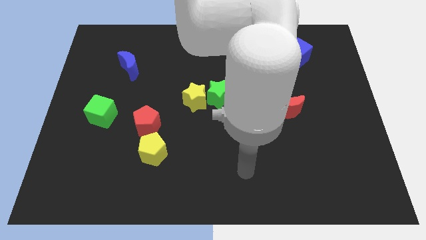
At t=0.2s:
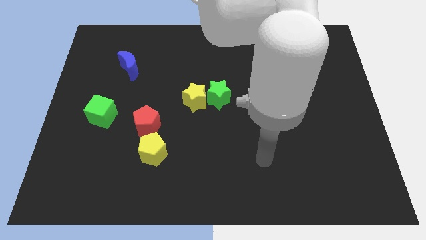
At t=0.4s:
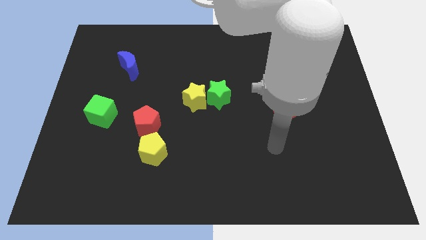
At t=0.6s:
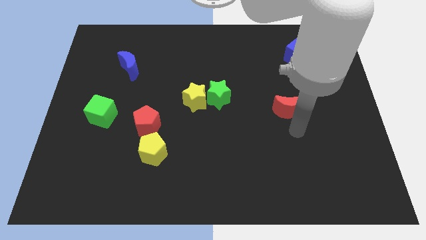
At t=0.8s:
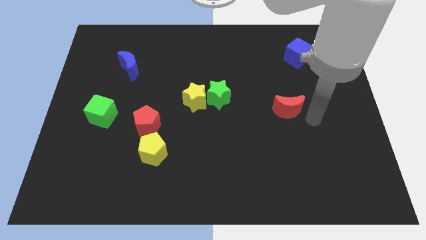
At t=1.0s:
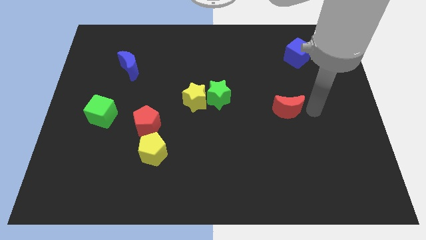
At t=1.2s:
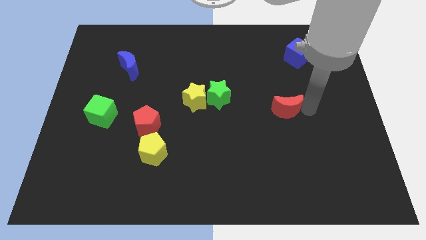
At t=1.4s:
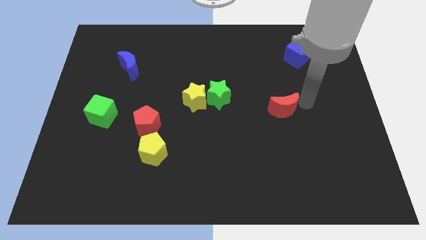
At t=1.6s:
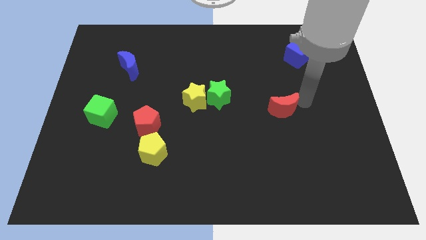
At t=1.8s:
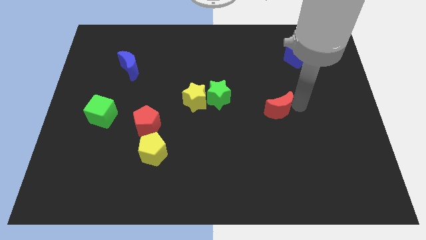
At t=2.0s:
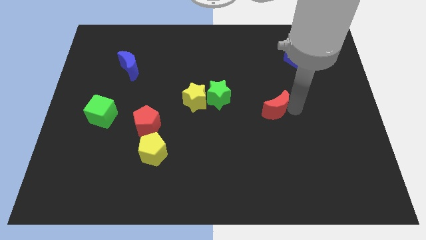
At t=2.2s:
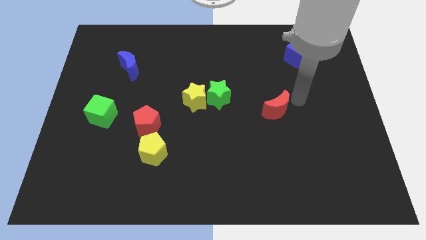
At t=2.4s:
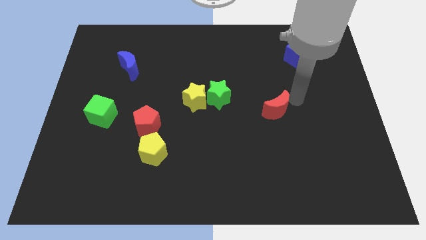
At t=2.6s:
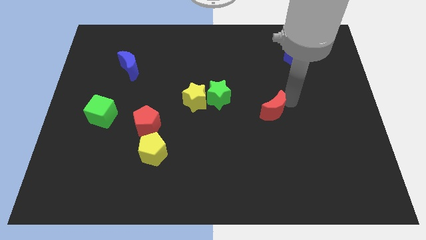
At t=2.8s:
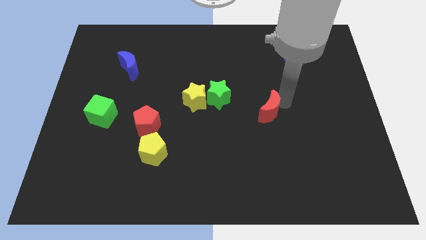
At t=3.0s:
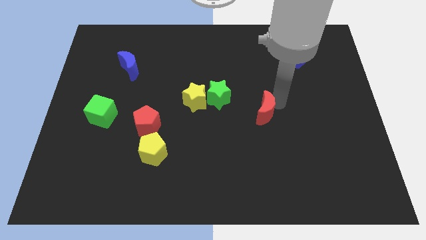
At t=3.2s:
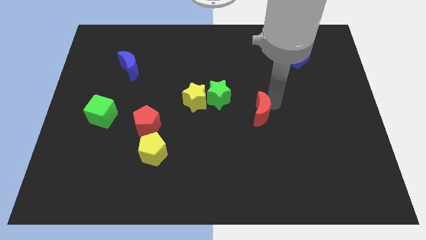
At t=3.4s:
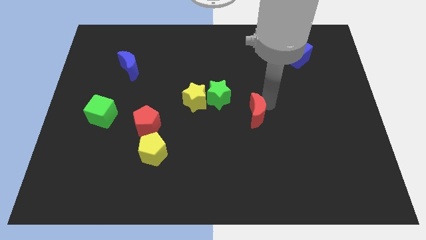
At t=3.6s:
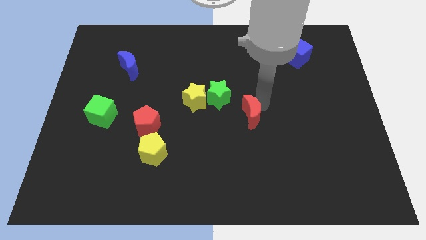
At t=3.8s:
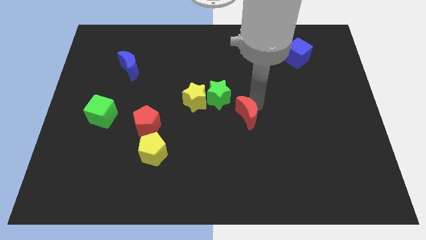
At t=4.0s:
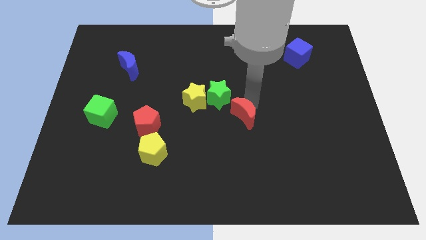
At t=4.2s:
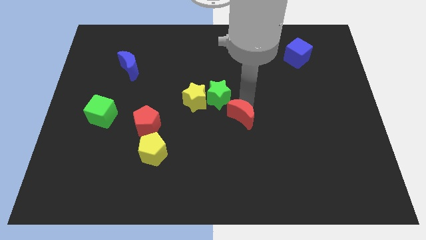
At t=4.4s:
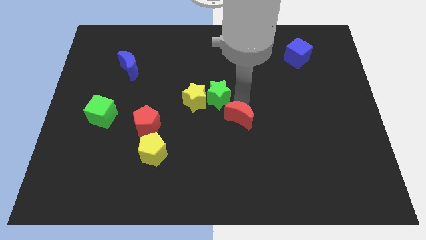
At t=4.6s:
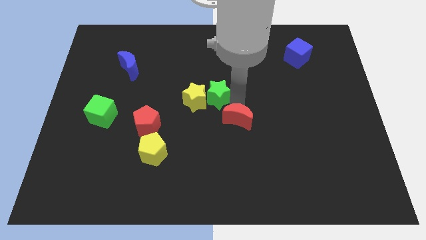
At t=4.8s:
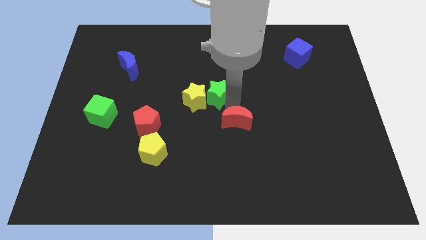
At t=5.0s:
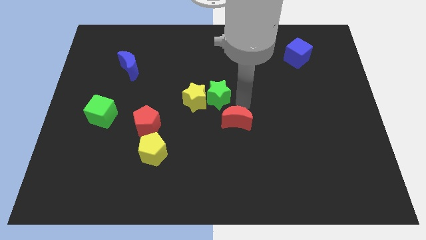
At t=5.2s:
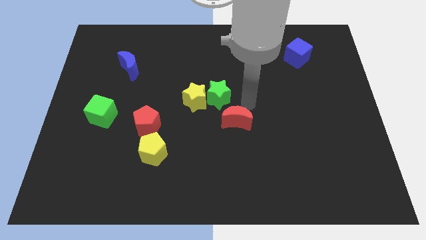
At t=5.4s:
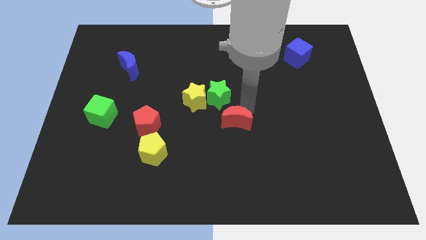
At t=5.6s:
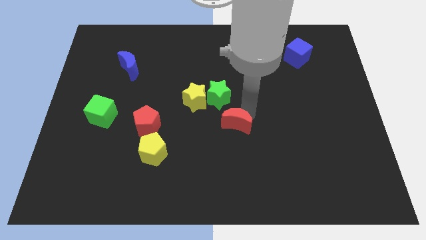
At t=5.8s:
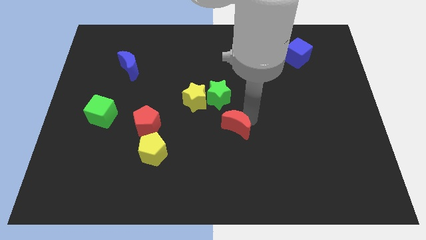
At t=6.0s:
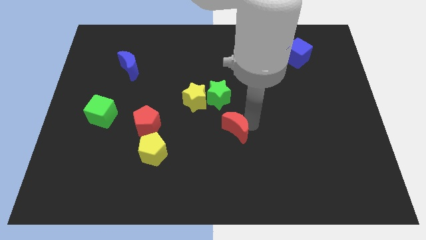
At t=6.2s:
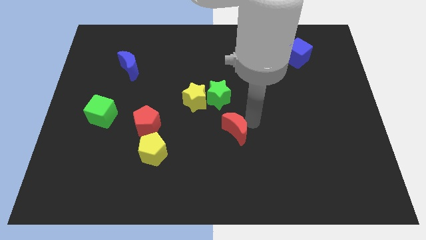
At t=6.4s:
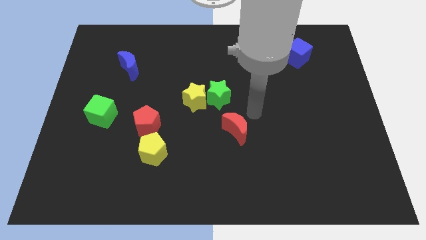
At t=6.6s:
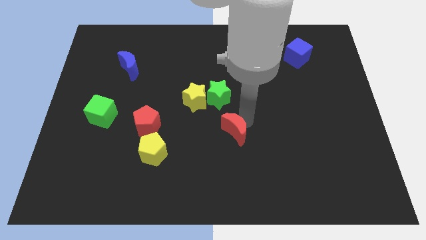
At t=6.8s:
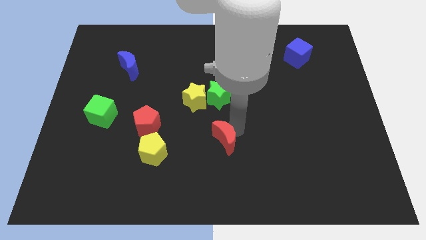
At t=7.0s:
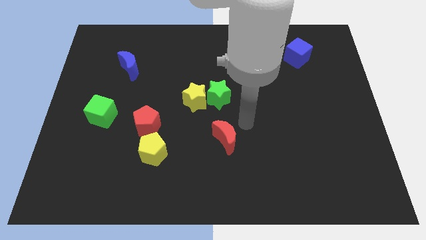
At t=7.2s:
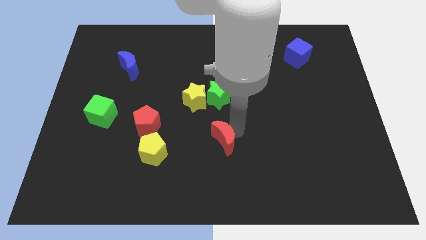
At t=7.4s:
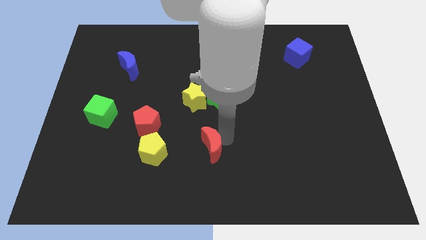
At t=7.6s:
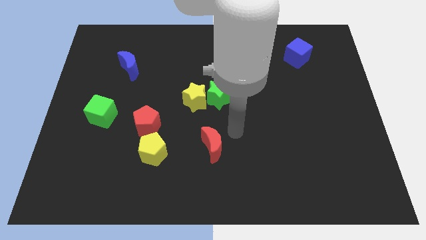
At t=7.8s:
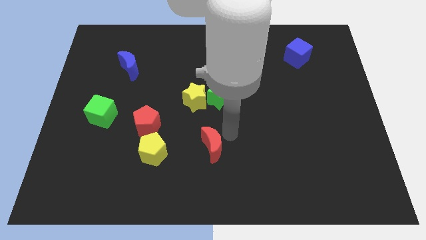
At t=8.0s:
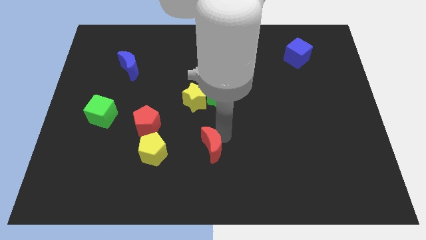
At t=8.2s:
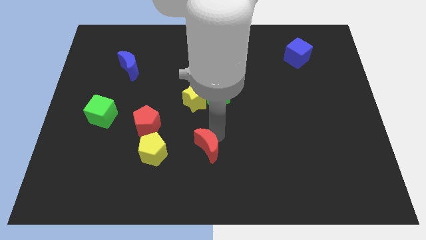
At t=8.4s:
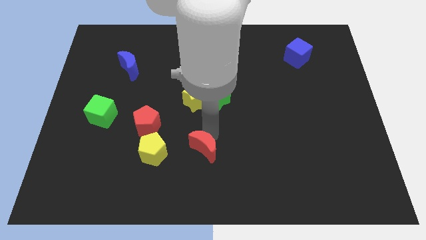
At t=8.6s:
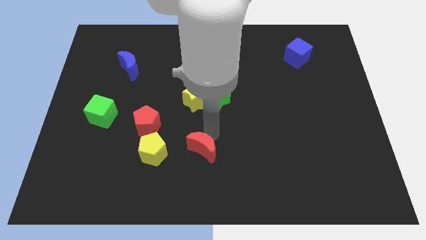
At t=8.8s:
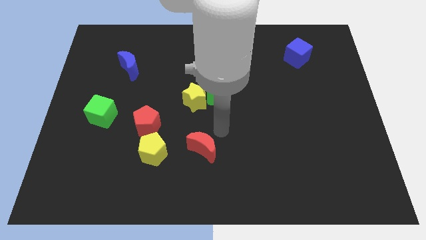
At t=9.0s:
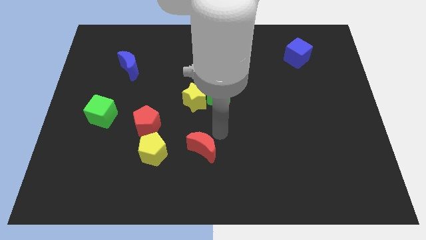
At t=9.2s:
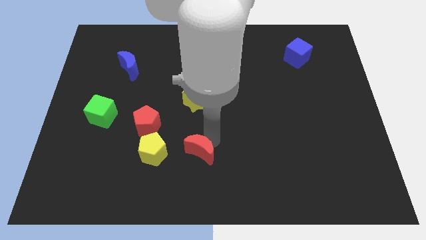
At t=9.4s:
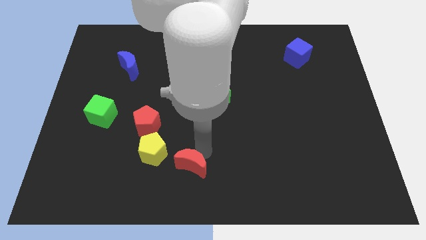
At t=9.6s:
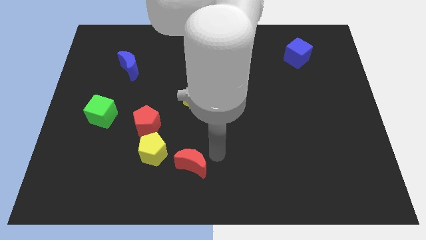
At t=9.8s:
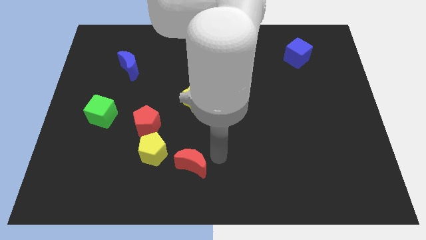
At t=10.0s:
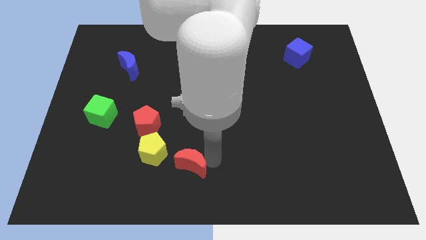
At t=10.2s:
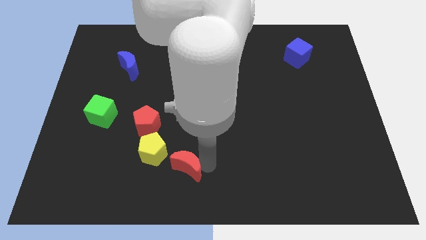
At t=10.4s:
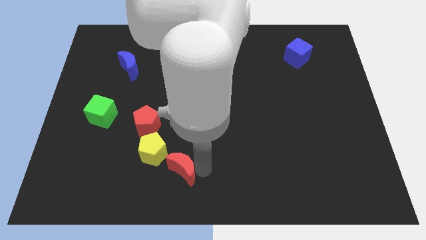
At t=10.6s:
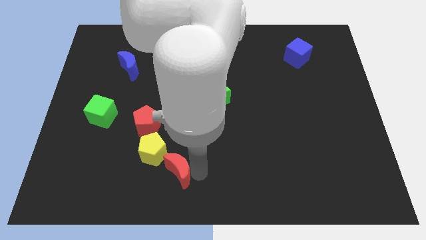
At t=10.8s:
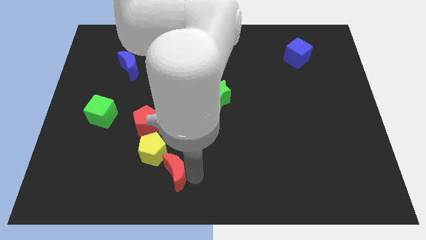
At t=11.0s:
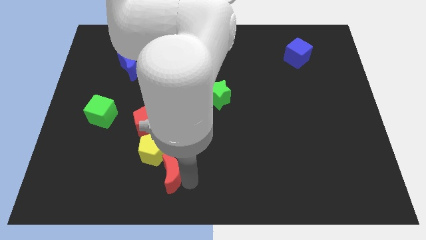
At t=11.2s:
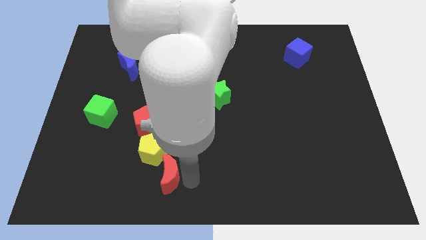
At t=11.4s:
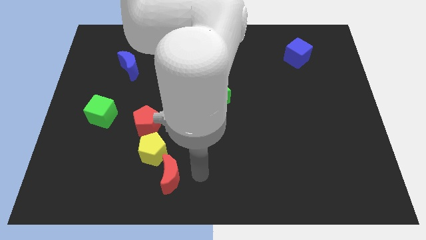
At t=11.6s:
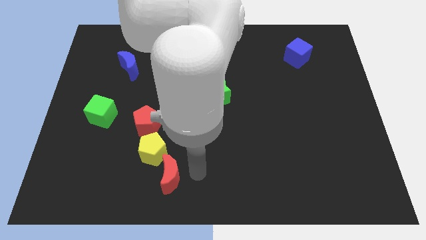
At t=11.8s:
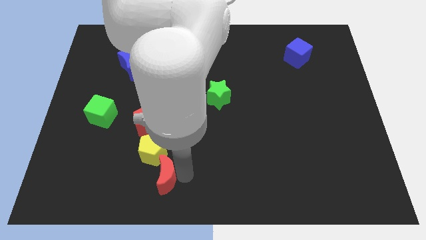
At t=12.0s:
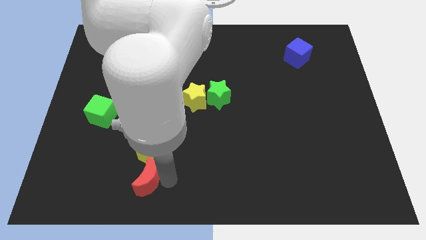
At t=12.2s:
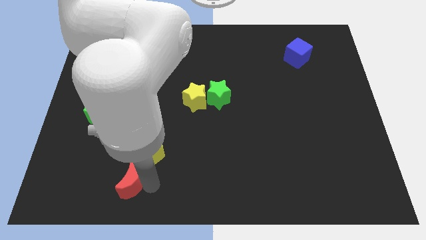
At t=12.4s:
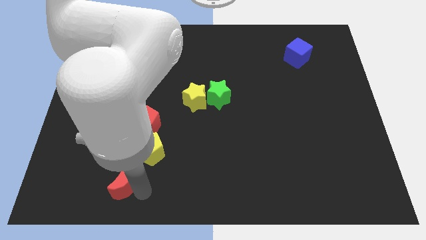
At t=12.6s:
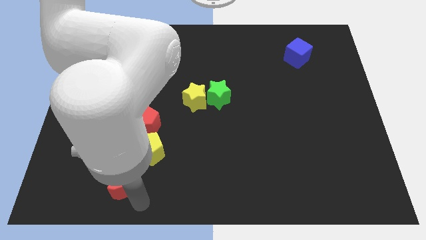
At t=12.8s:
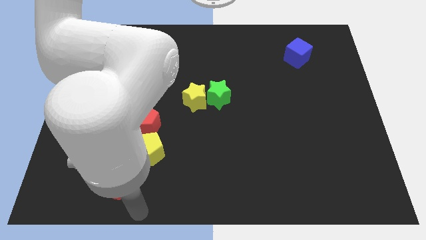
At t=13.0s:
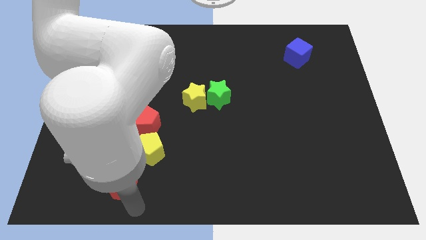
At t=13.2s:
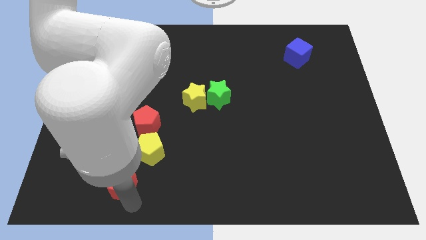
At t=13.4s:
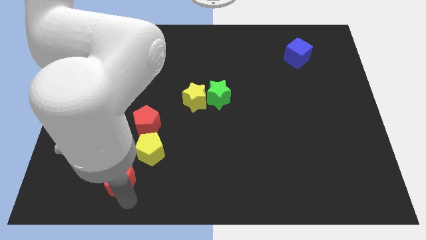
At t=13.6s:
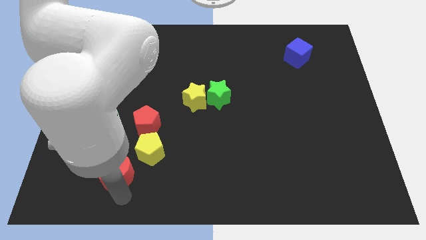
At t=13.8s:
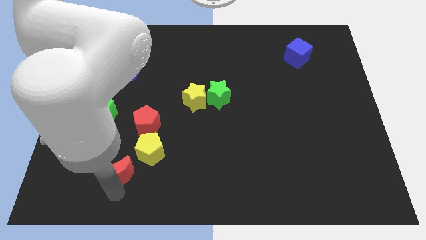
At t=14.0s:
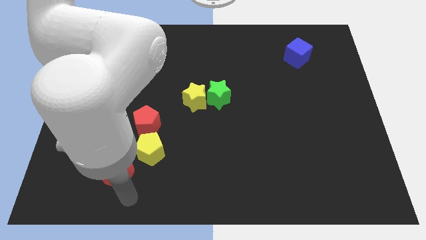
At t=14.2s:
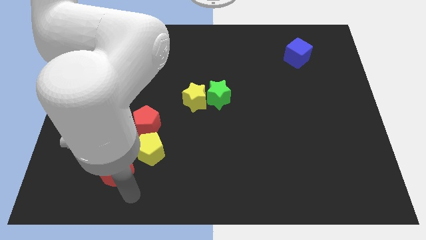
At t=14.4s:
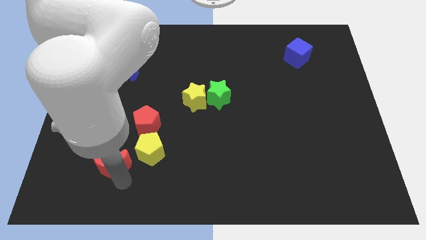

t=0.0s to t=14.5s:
put the red moon to the left side of the yellow pentagon

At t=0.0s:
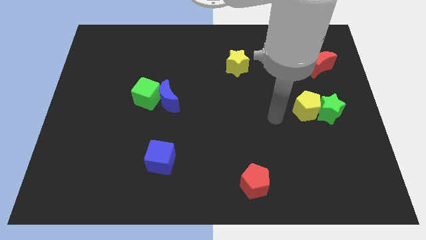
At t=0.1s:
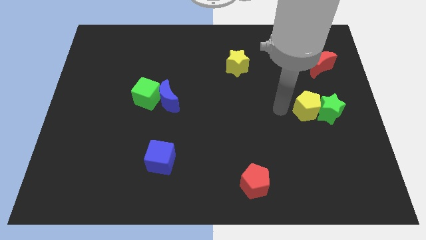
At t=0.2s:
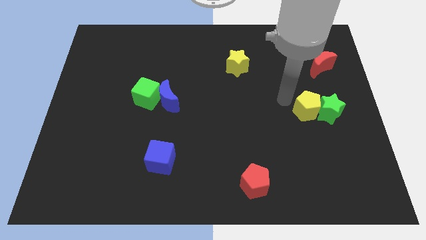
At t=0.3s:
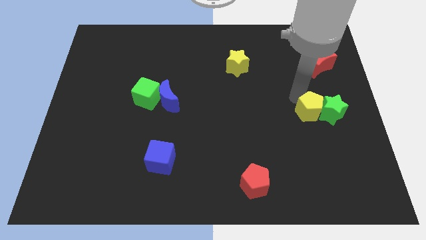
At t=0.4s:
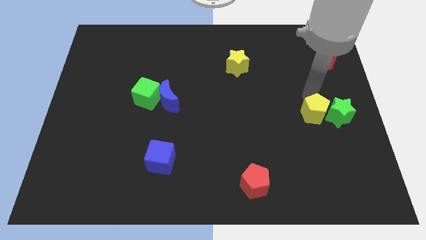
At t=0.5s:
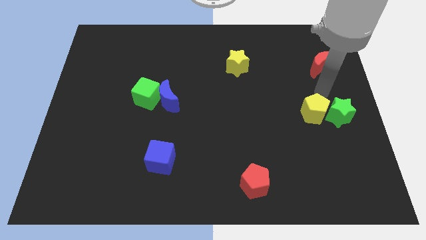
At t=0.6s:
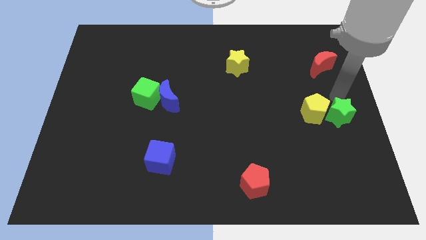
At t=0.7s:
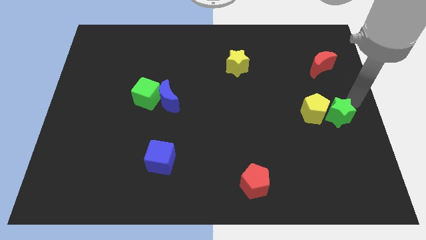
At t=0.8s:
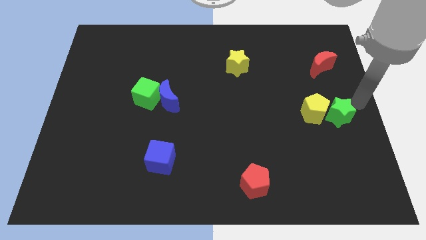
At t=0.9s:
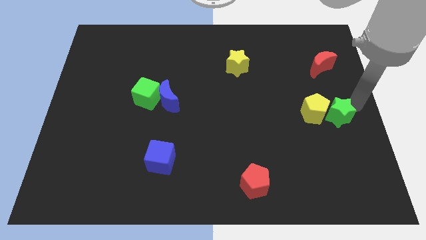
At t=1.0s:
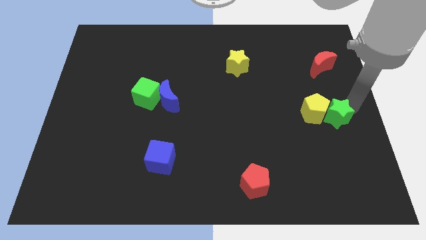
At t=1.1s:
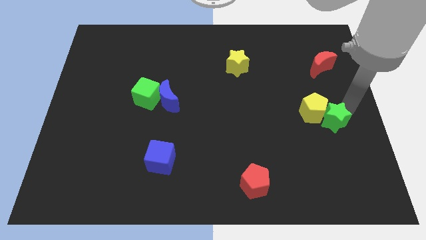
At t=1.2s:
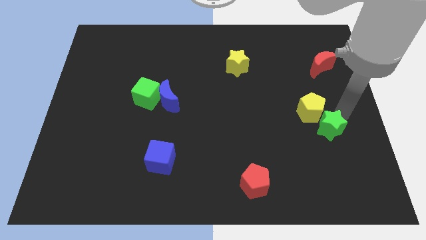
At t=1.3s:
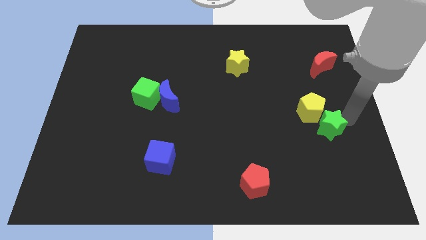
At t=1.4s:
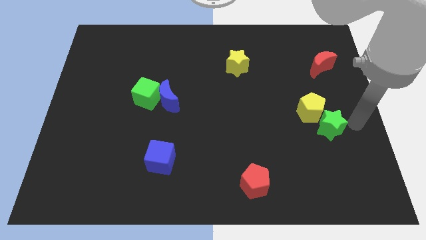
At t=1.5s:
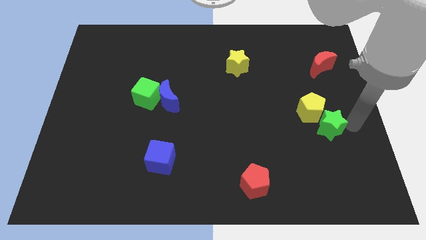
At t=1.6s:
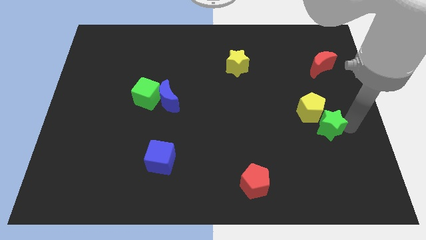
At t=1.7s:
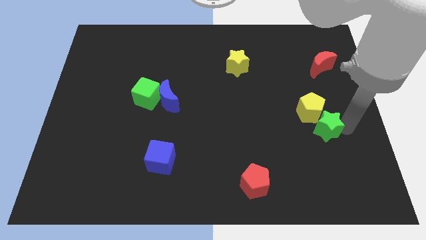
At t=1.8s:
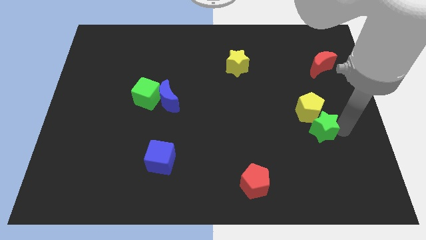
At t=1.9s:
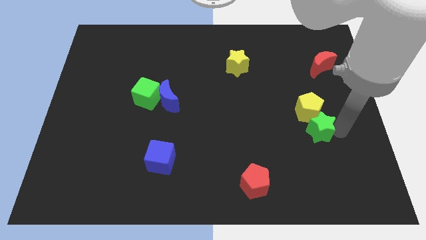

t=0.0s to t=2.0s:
move the green star to the bottom left side of the yellow pentagon
